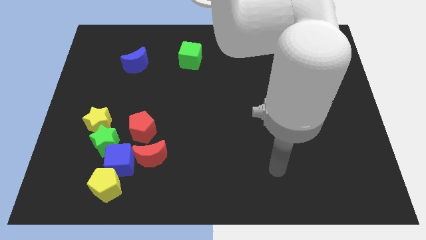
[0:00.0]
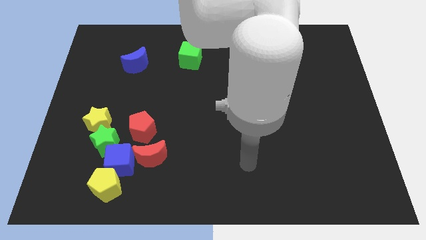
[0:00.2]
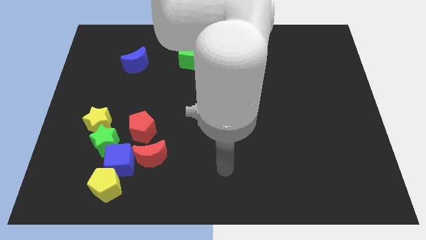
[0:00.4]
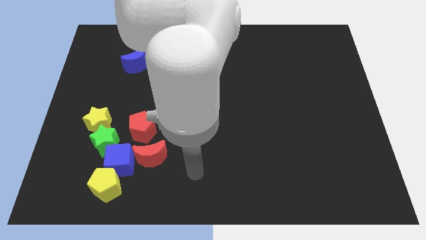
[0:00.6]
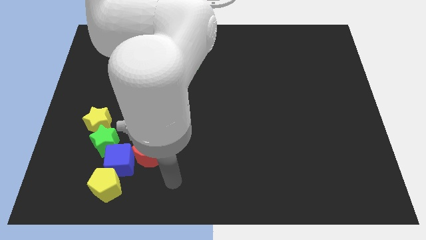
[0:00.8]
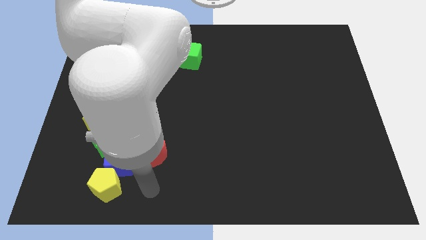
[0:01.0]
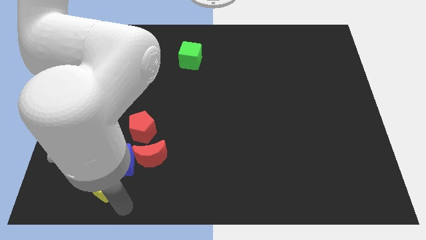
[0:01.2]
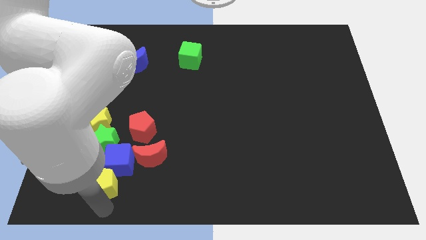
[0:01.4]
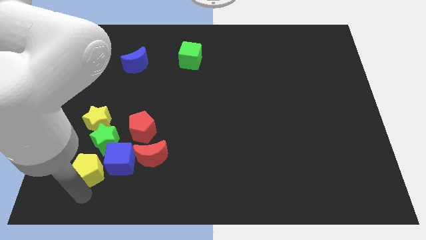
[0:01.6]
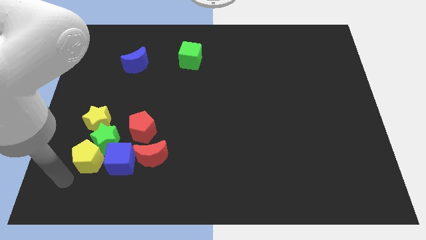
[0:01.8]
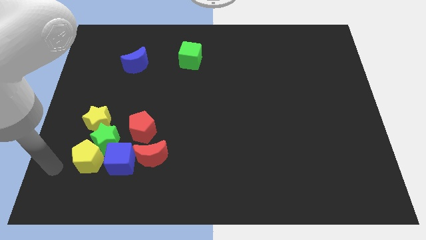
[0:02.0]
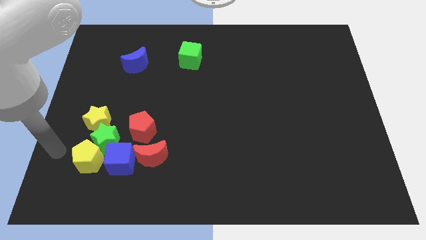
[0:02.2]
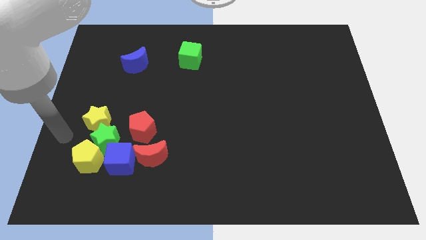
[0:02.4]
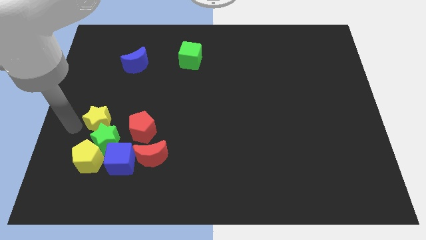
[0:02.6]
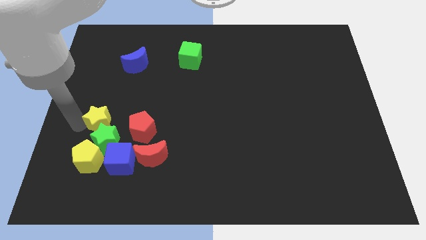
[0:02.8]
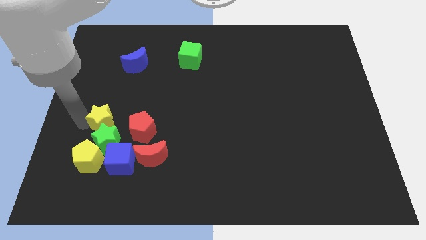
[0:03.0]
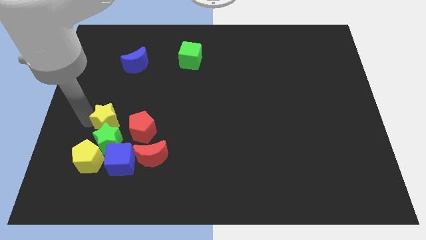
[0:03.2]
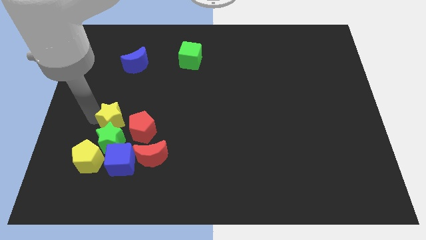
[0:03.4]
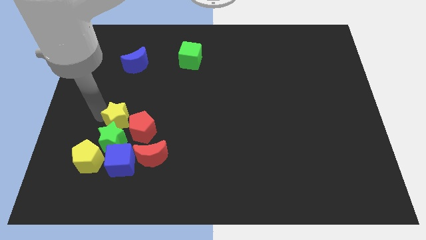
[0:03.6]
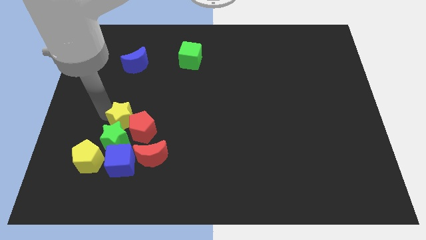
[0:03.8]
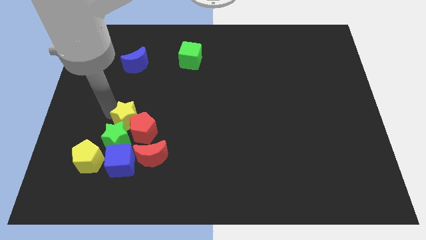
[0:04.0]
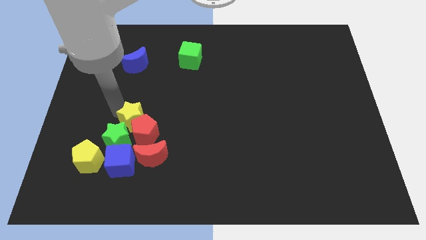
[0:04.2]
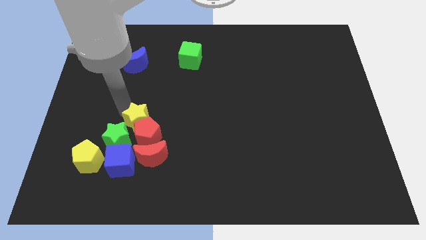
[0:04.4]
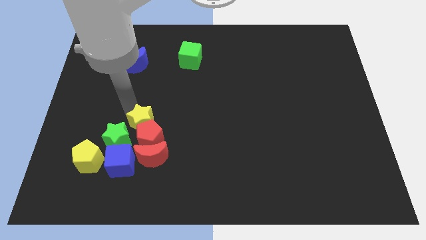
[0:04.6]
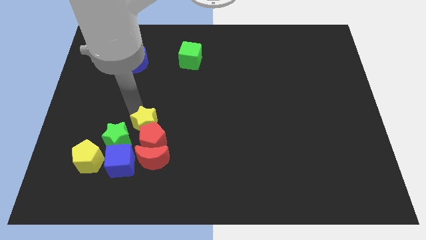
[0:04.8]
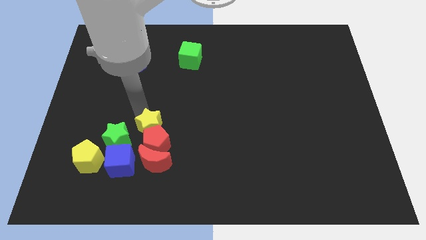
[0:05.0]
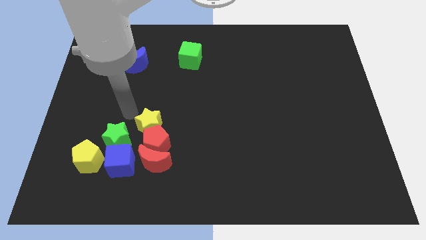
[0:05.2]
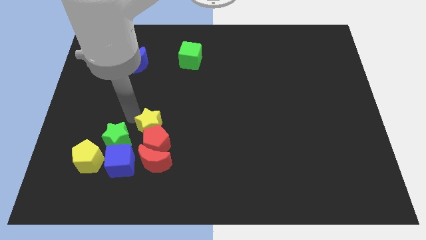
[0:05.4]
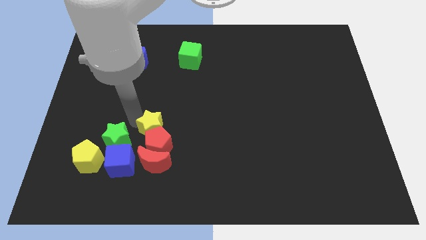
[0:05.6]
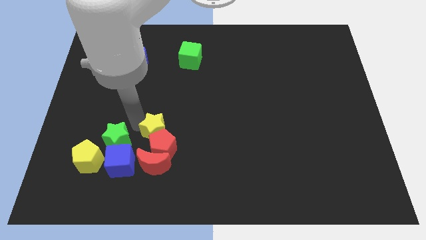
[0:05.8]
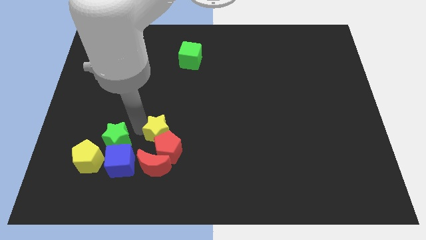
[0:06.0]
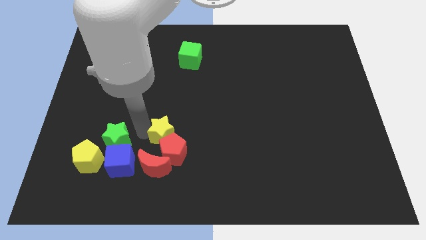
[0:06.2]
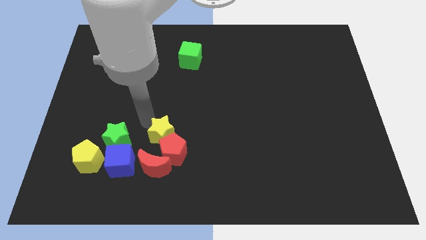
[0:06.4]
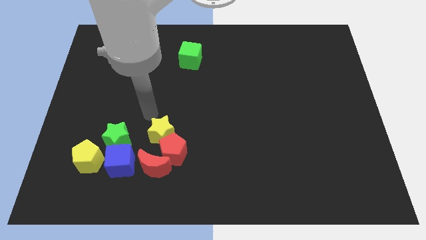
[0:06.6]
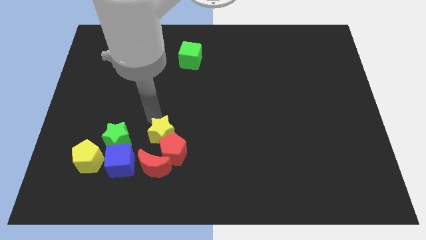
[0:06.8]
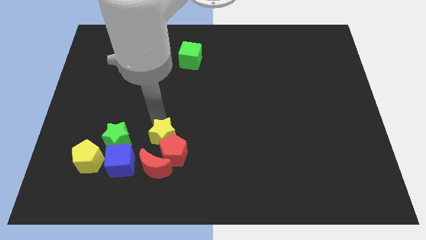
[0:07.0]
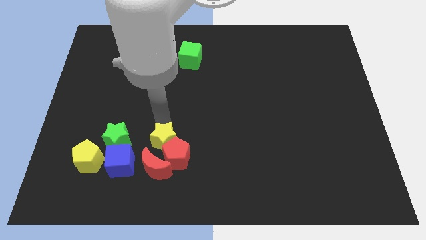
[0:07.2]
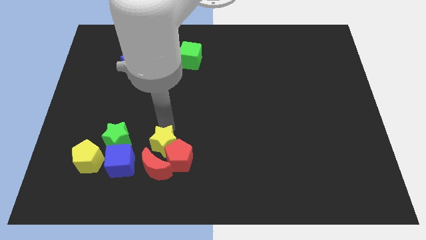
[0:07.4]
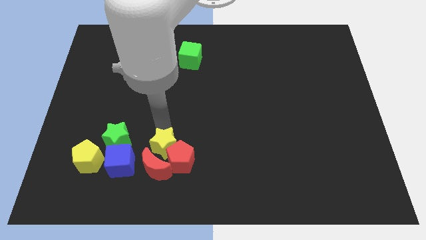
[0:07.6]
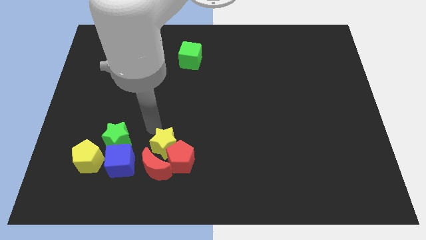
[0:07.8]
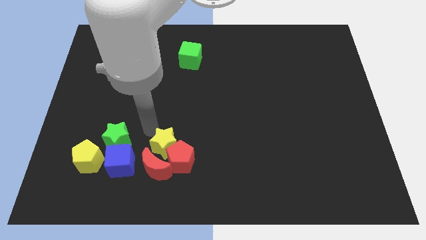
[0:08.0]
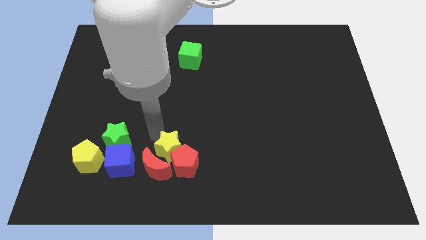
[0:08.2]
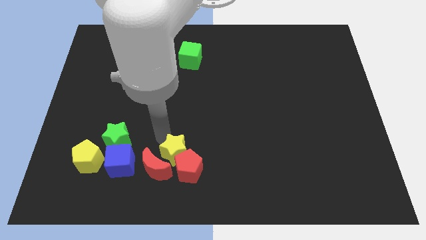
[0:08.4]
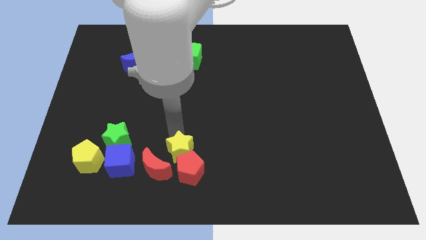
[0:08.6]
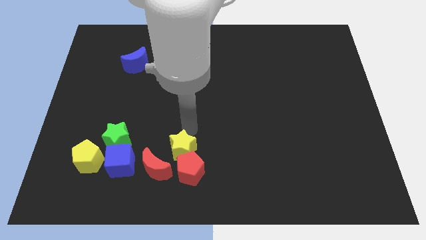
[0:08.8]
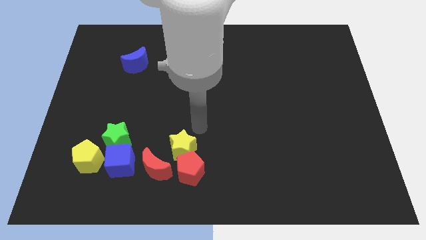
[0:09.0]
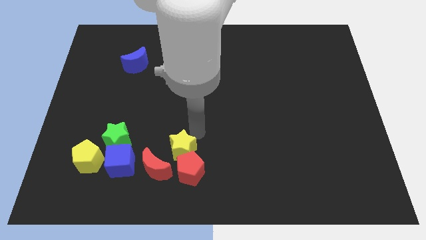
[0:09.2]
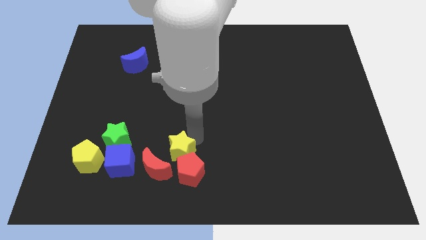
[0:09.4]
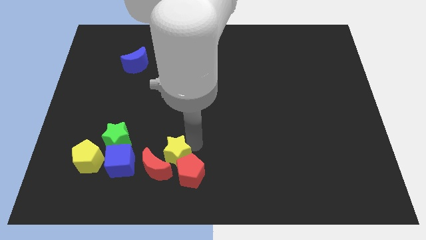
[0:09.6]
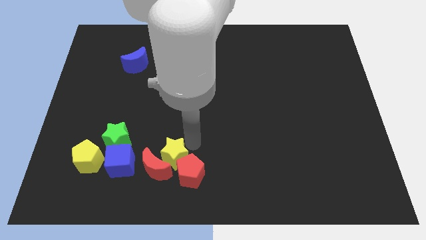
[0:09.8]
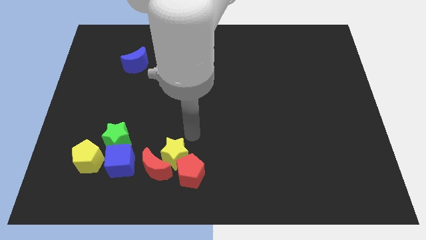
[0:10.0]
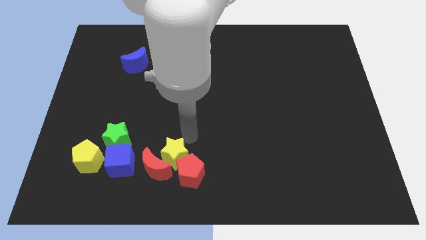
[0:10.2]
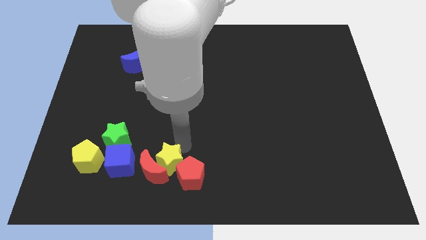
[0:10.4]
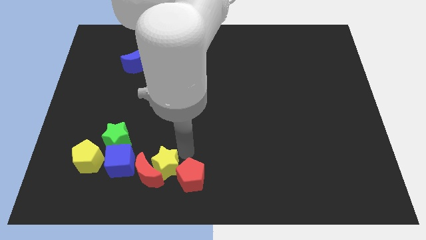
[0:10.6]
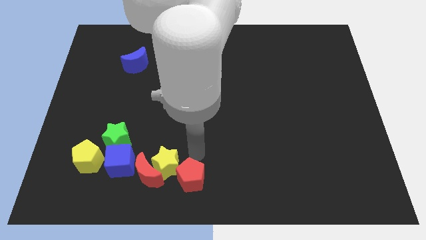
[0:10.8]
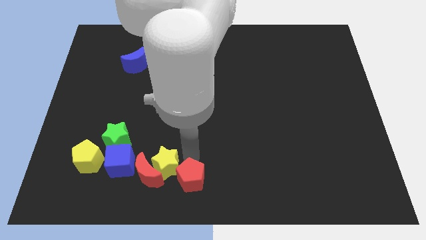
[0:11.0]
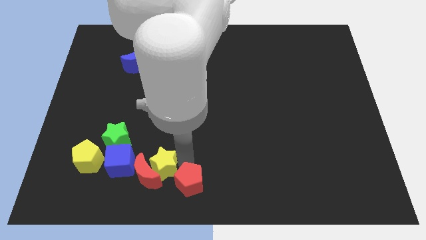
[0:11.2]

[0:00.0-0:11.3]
put the yellow star diagonally down and to the right of the green star

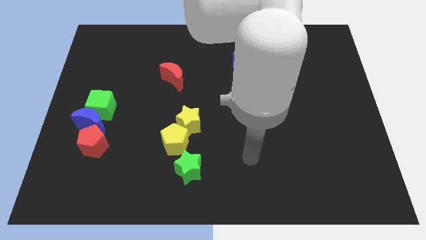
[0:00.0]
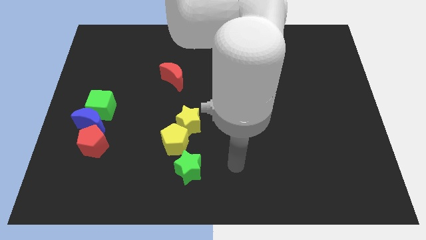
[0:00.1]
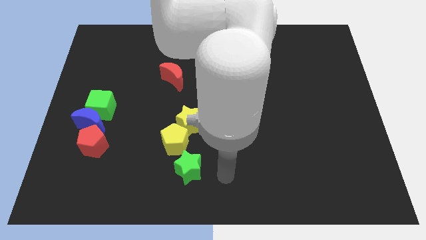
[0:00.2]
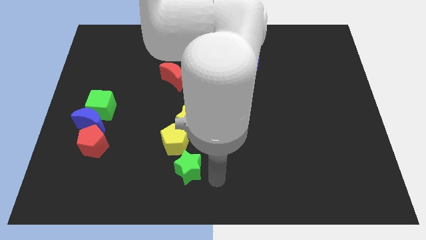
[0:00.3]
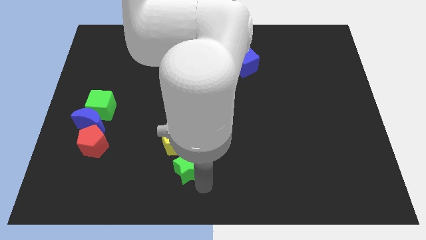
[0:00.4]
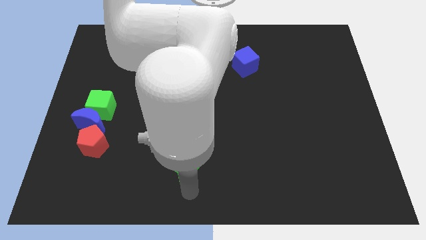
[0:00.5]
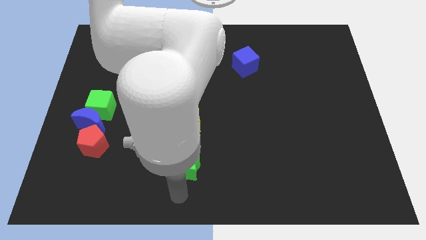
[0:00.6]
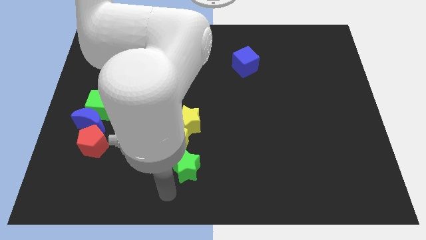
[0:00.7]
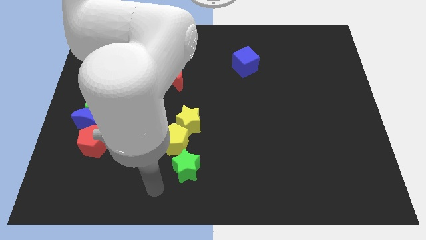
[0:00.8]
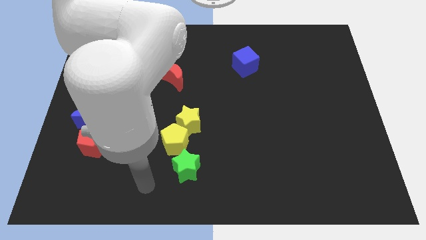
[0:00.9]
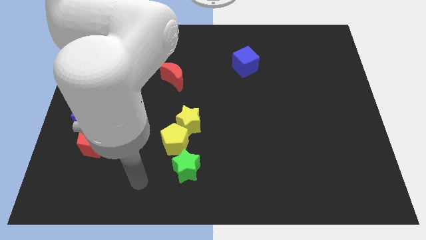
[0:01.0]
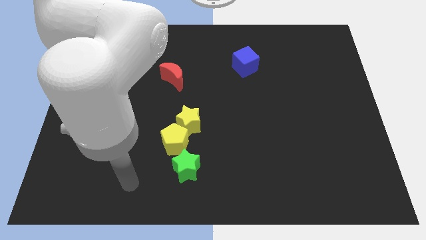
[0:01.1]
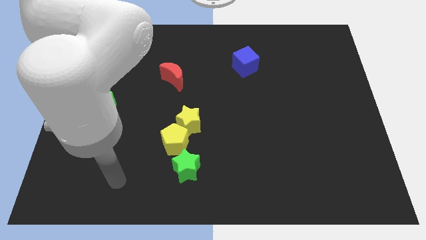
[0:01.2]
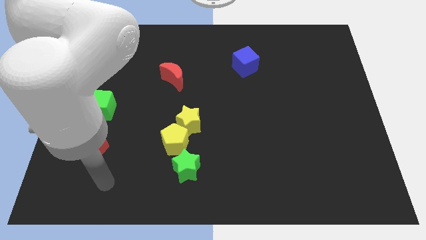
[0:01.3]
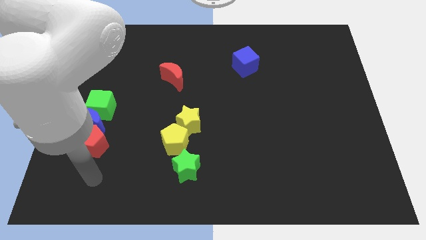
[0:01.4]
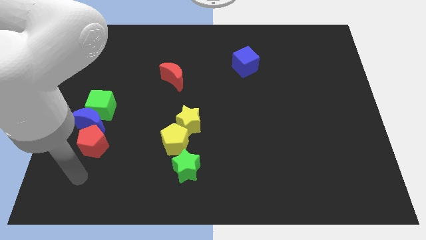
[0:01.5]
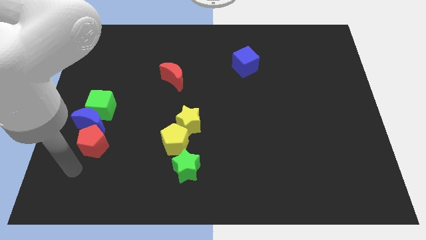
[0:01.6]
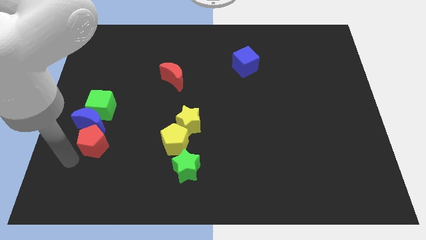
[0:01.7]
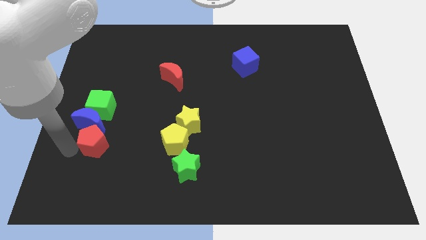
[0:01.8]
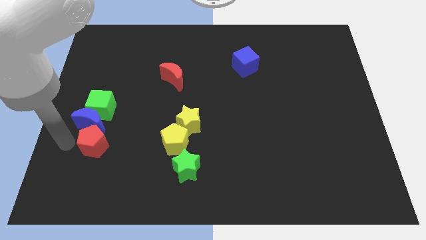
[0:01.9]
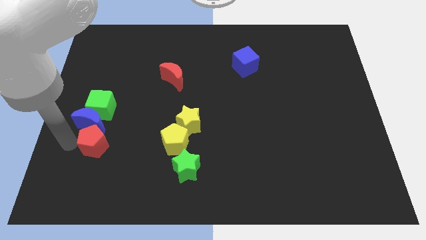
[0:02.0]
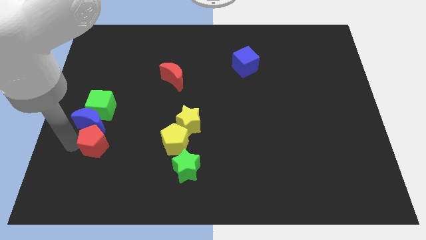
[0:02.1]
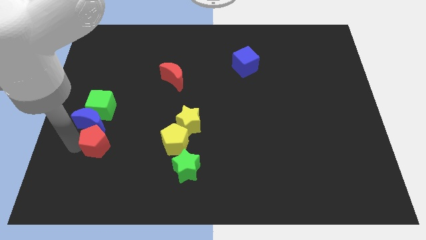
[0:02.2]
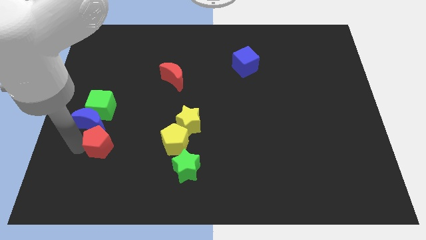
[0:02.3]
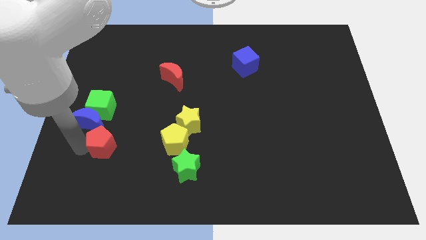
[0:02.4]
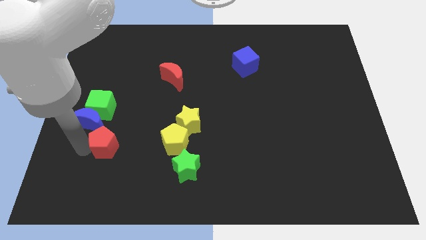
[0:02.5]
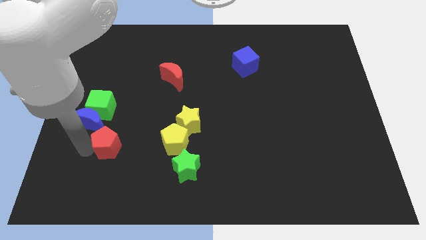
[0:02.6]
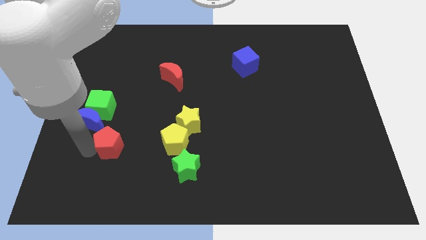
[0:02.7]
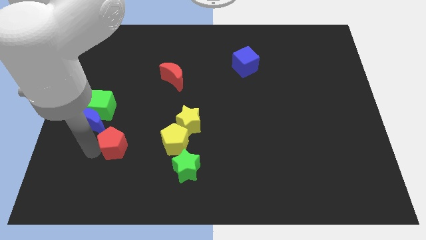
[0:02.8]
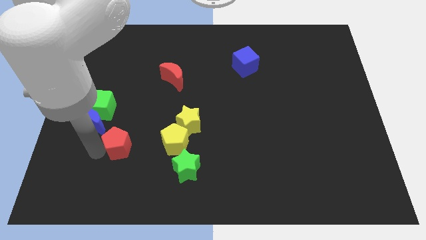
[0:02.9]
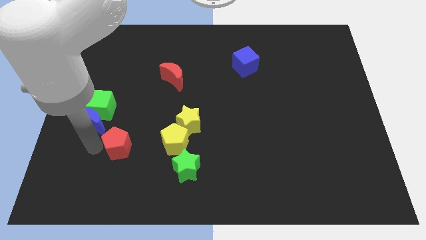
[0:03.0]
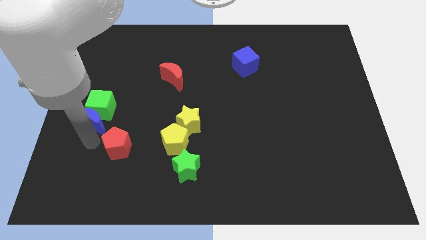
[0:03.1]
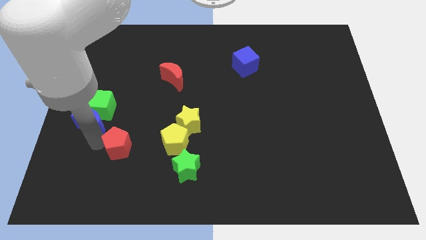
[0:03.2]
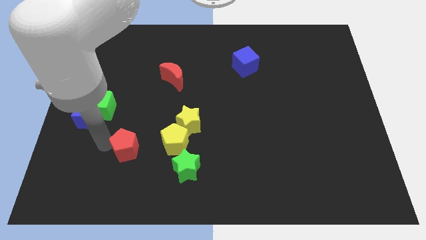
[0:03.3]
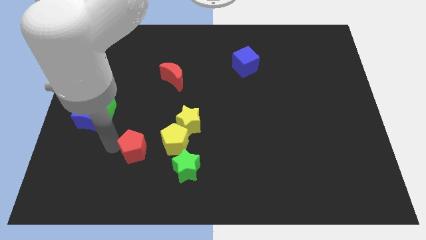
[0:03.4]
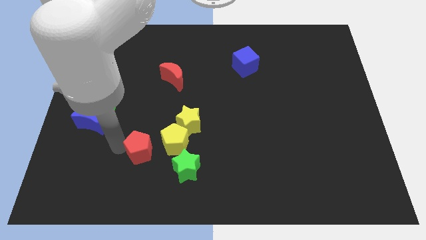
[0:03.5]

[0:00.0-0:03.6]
move the red pentagon to the bottom left of the yellow star
